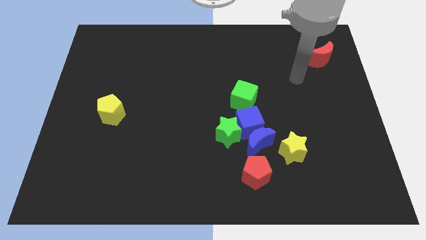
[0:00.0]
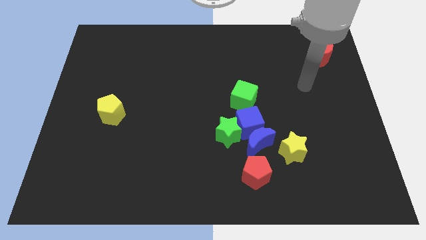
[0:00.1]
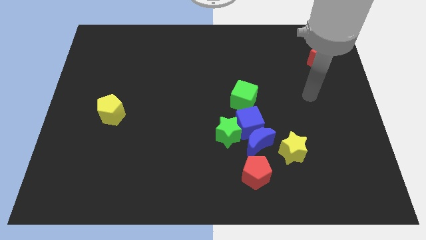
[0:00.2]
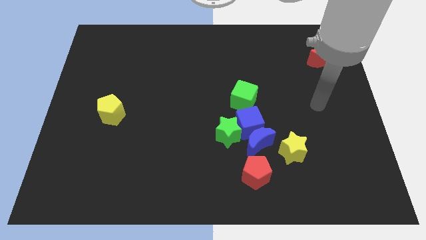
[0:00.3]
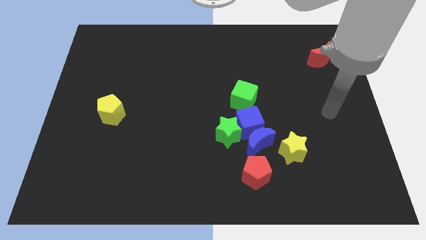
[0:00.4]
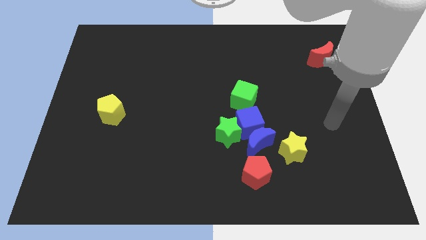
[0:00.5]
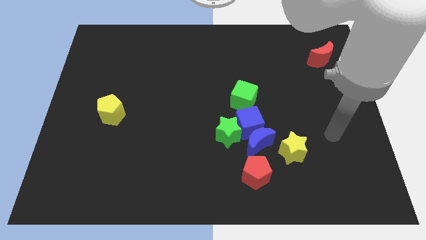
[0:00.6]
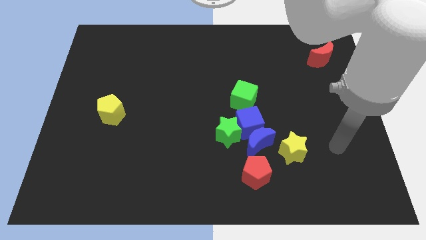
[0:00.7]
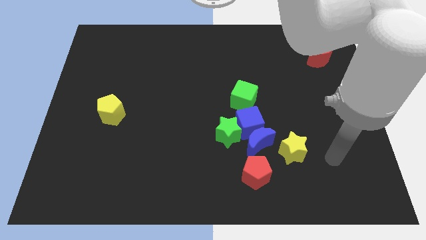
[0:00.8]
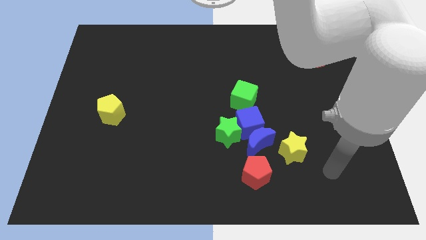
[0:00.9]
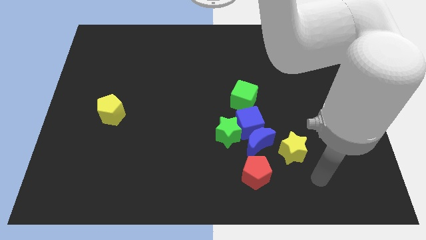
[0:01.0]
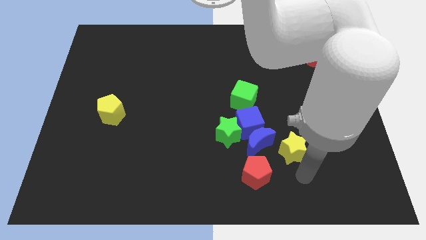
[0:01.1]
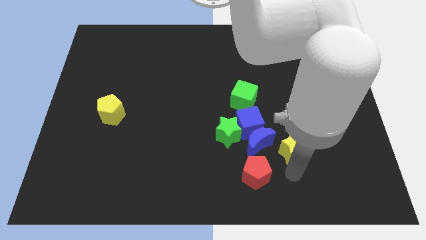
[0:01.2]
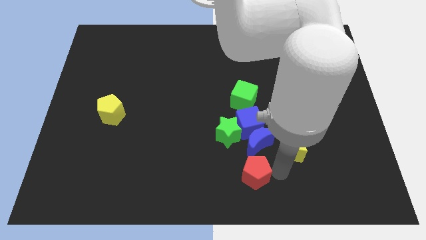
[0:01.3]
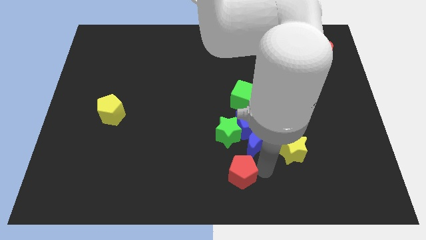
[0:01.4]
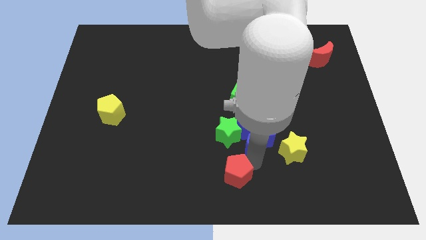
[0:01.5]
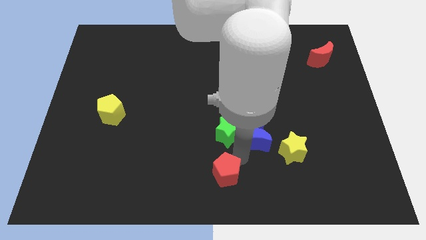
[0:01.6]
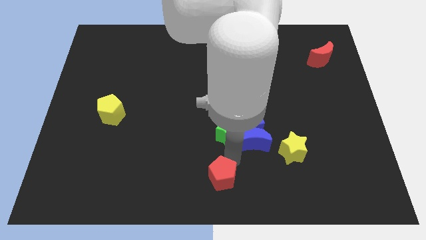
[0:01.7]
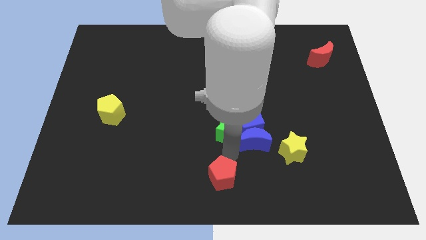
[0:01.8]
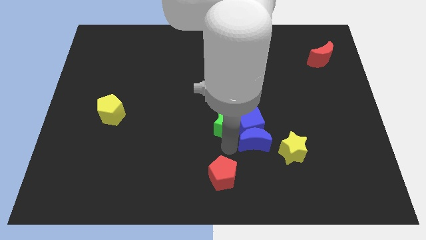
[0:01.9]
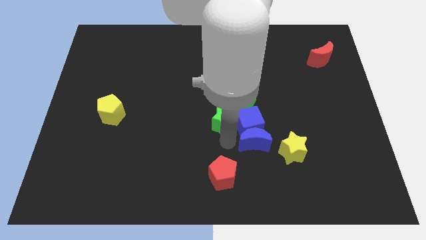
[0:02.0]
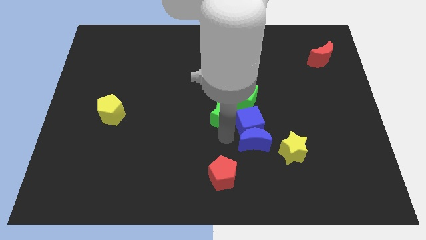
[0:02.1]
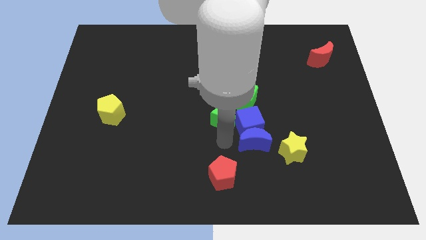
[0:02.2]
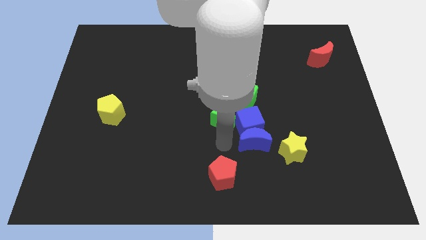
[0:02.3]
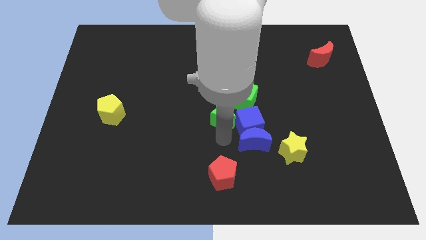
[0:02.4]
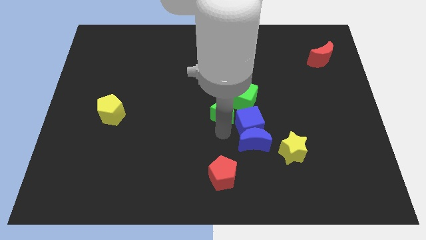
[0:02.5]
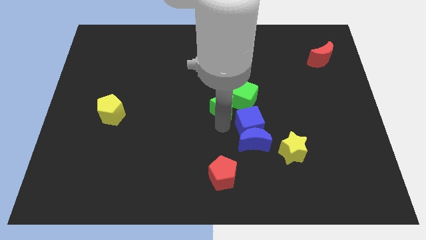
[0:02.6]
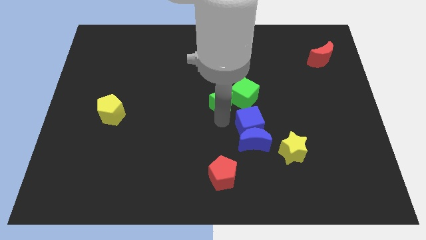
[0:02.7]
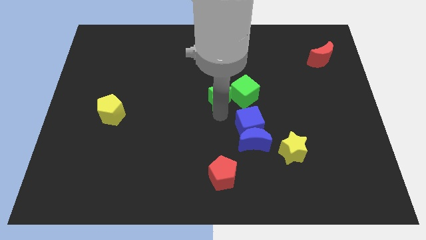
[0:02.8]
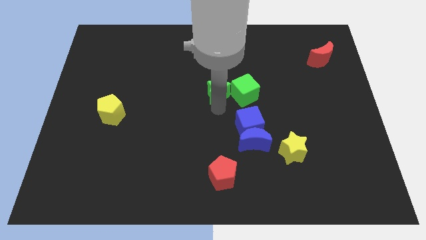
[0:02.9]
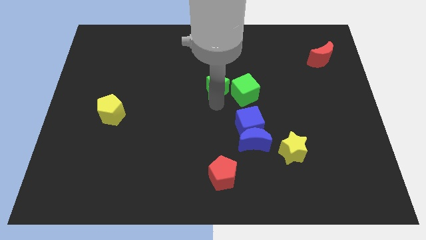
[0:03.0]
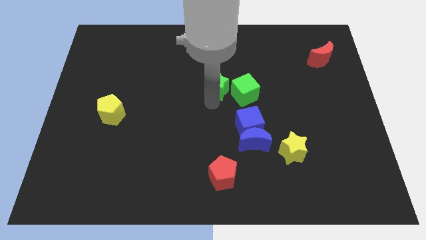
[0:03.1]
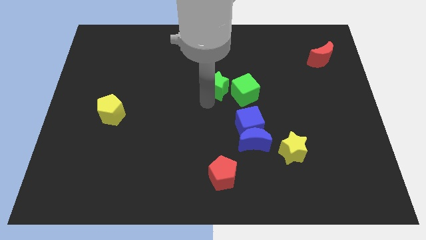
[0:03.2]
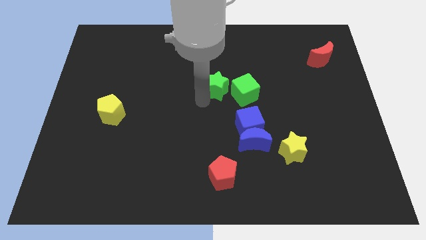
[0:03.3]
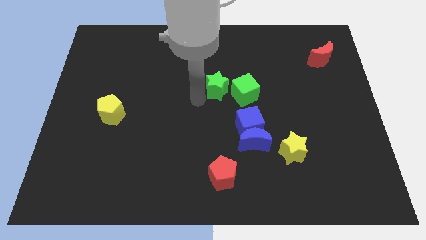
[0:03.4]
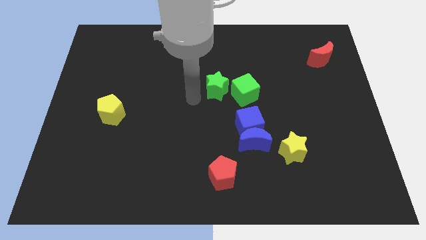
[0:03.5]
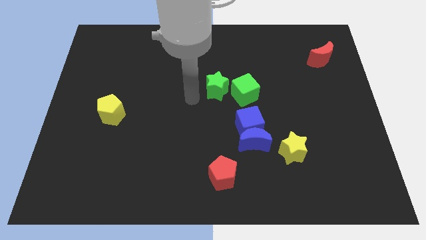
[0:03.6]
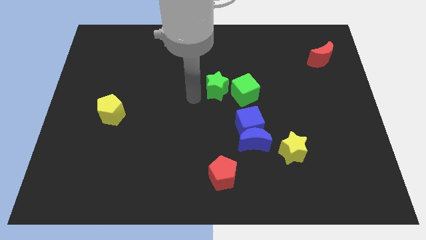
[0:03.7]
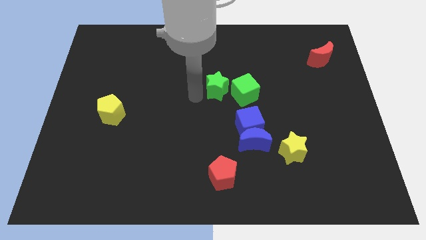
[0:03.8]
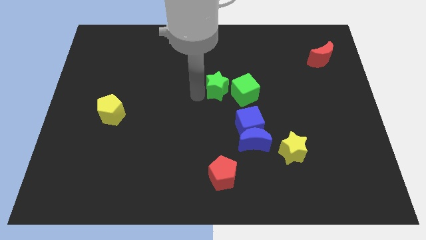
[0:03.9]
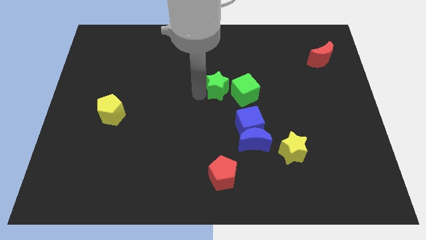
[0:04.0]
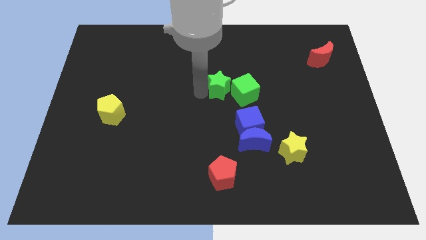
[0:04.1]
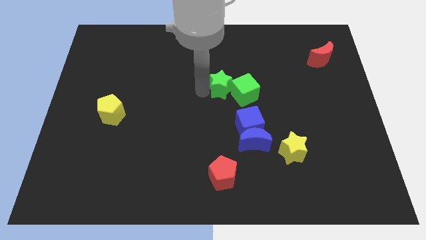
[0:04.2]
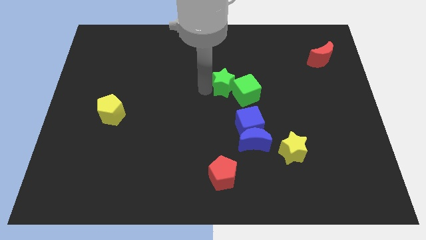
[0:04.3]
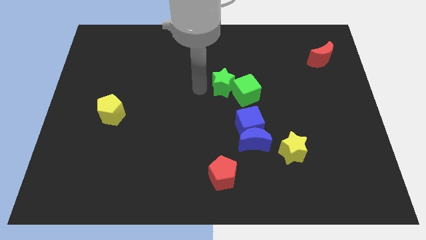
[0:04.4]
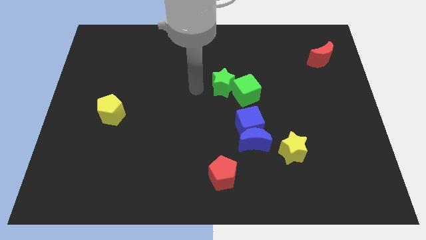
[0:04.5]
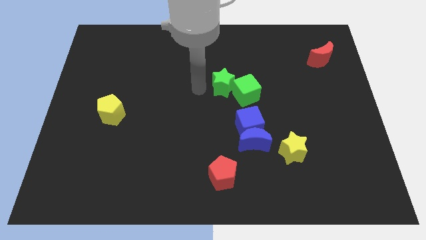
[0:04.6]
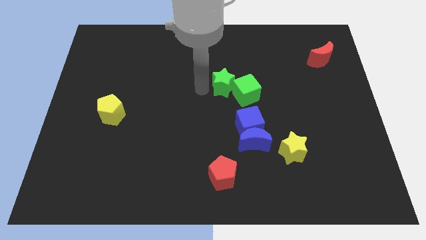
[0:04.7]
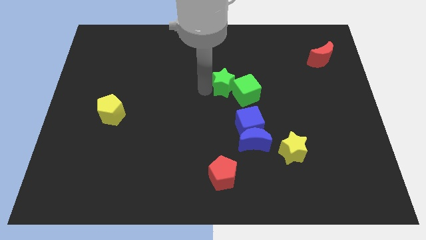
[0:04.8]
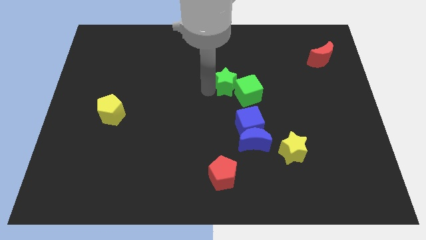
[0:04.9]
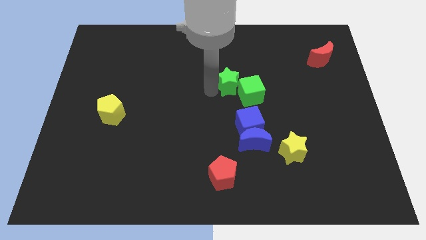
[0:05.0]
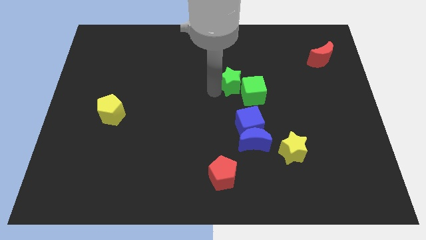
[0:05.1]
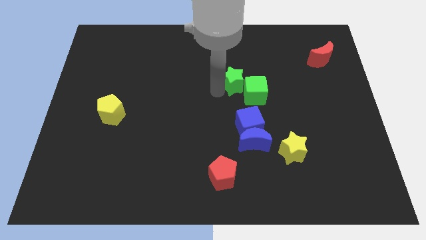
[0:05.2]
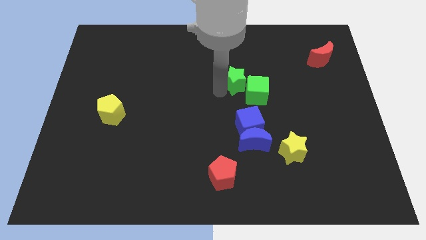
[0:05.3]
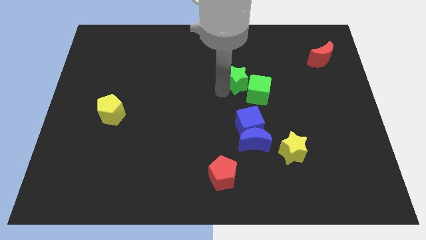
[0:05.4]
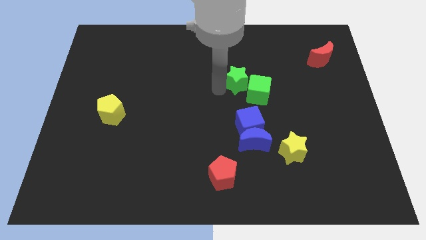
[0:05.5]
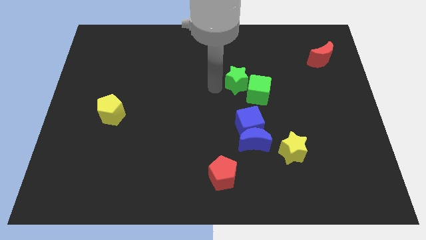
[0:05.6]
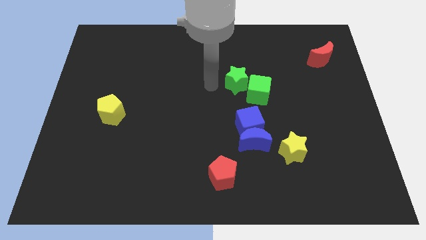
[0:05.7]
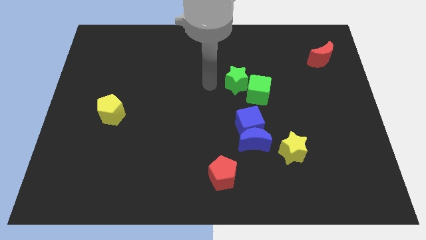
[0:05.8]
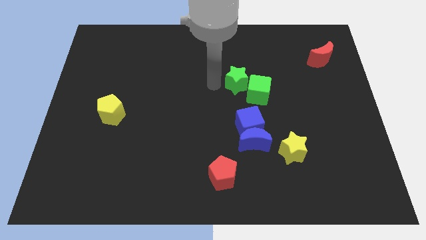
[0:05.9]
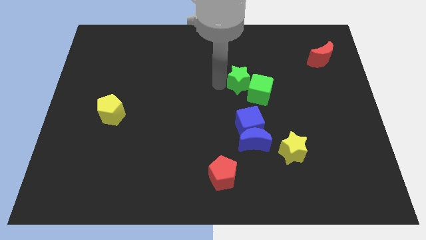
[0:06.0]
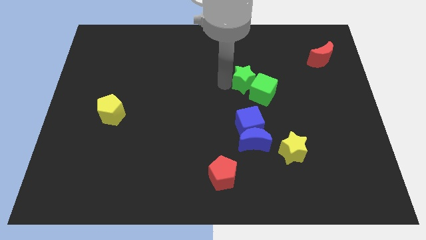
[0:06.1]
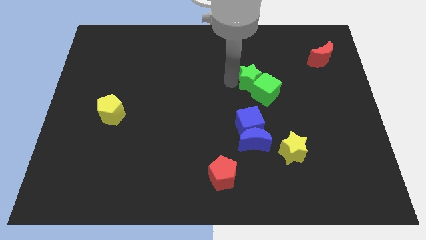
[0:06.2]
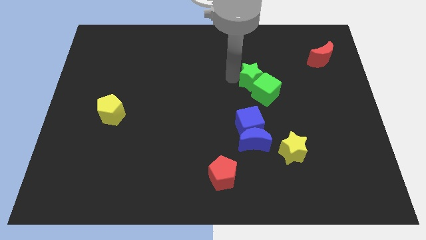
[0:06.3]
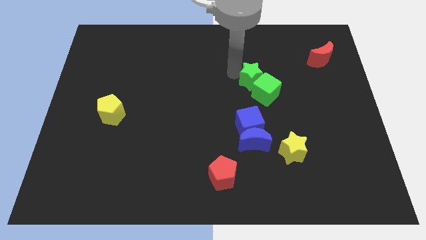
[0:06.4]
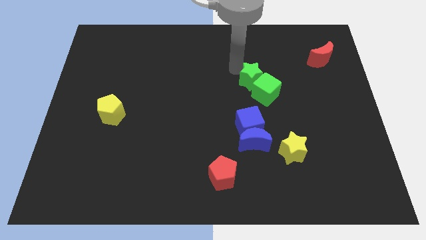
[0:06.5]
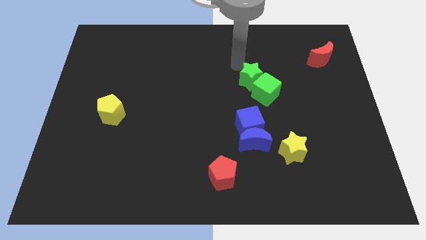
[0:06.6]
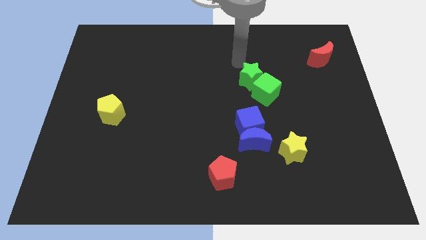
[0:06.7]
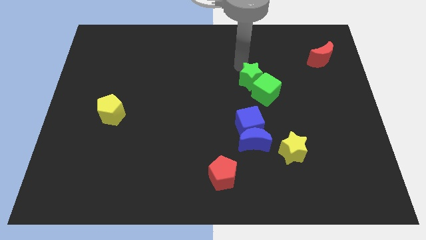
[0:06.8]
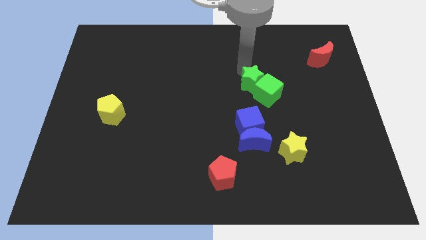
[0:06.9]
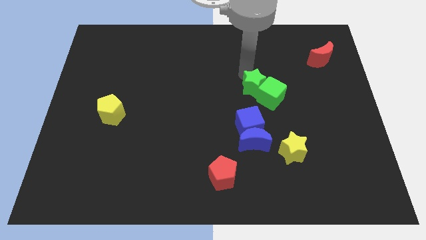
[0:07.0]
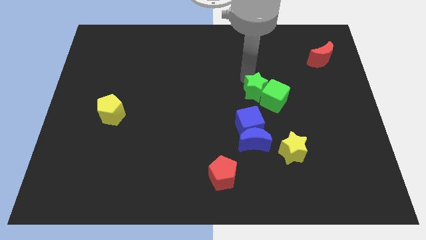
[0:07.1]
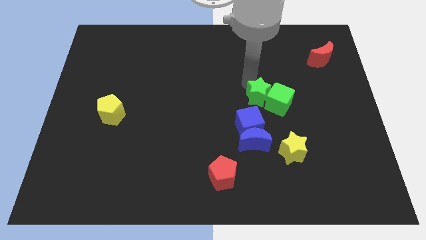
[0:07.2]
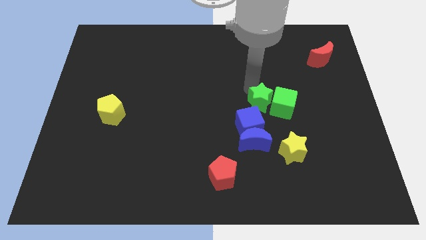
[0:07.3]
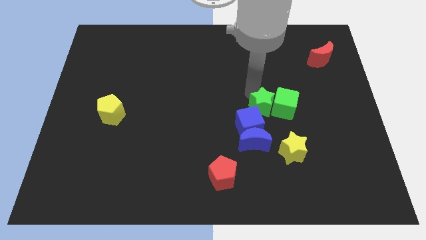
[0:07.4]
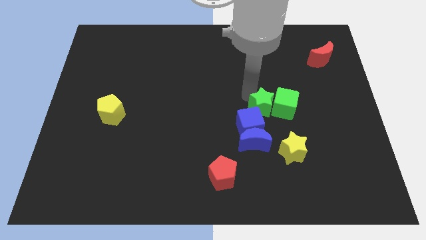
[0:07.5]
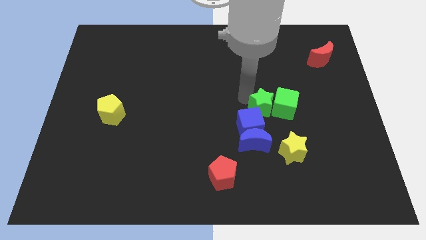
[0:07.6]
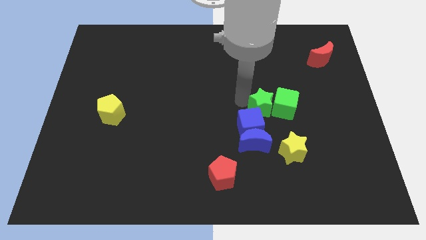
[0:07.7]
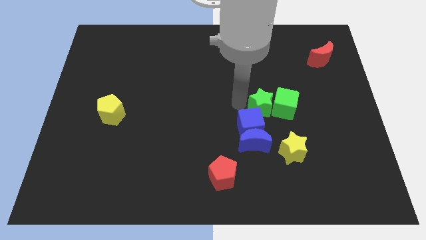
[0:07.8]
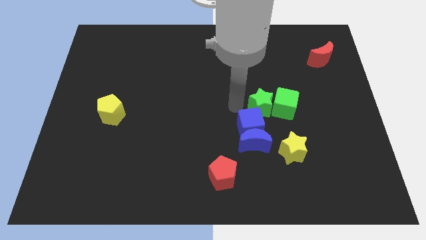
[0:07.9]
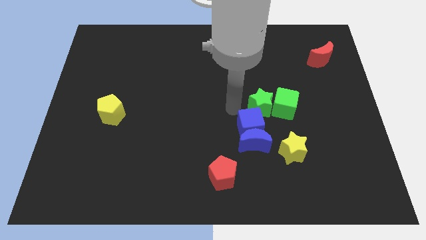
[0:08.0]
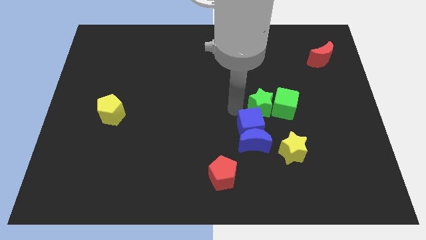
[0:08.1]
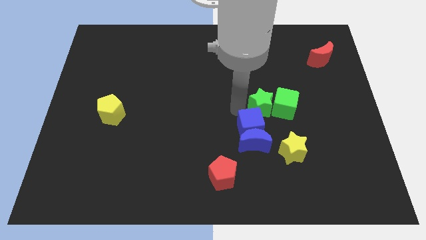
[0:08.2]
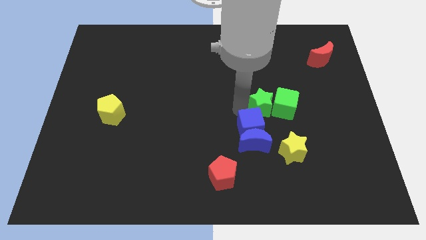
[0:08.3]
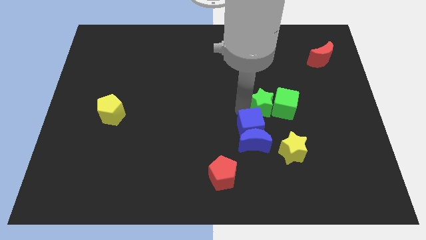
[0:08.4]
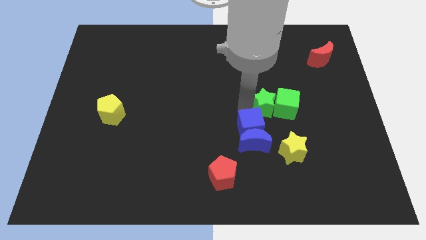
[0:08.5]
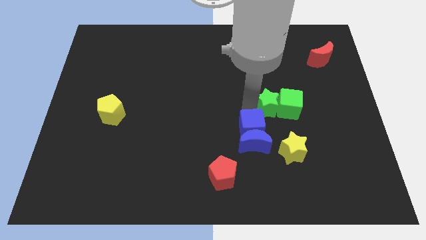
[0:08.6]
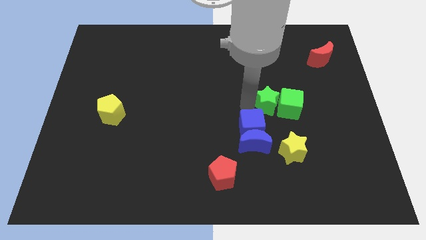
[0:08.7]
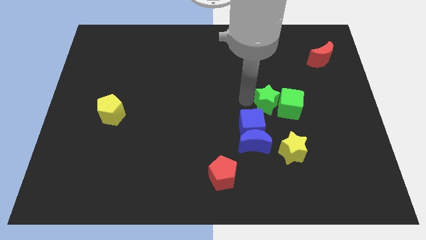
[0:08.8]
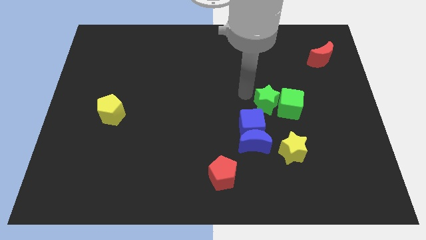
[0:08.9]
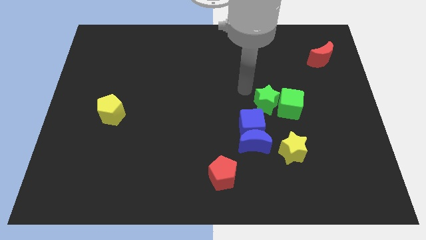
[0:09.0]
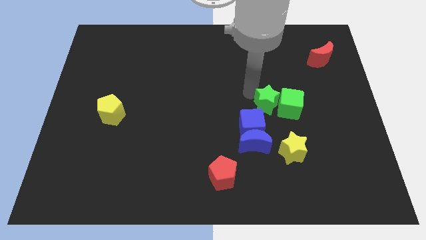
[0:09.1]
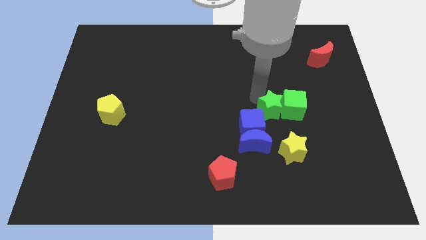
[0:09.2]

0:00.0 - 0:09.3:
move the green star to the right of the blue cube
